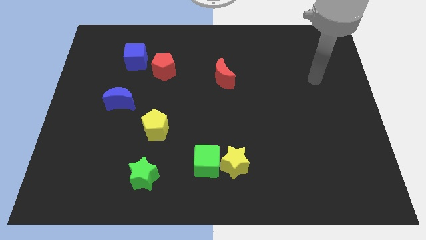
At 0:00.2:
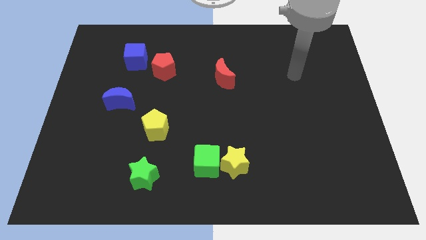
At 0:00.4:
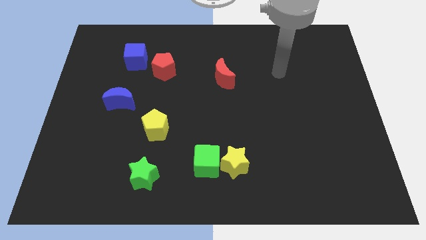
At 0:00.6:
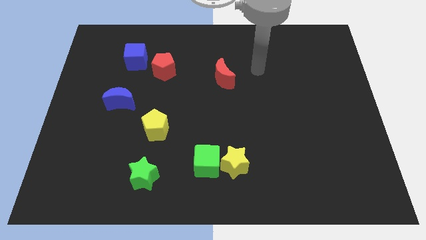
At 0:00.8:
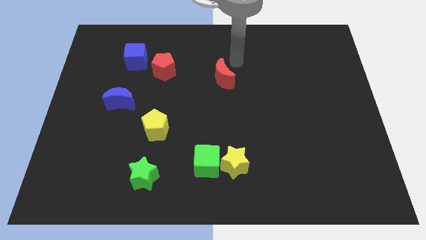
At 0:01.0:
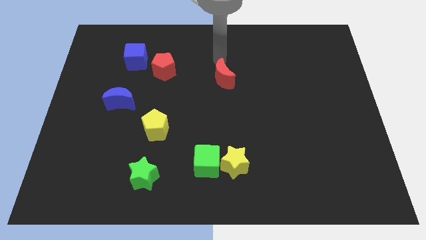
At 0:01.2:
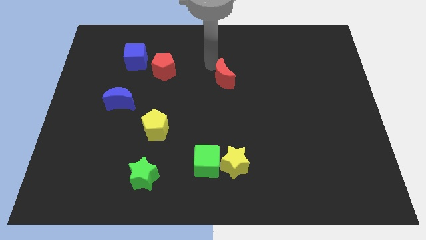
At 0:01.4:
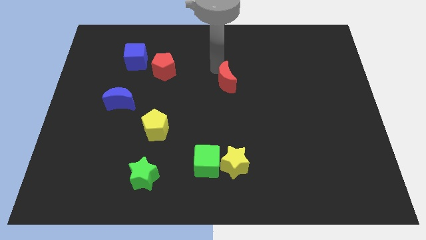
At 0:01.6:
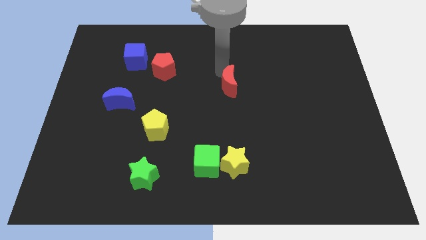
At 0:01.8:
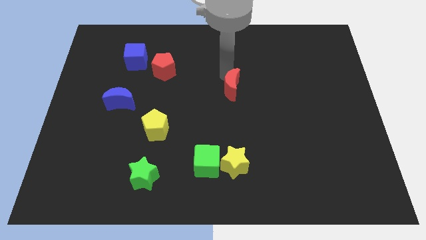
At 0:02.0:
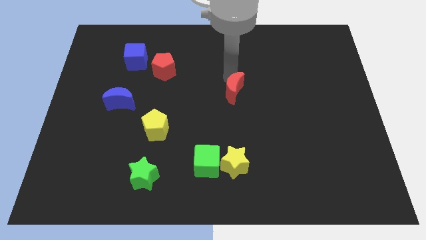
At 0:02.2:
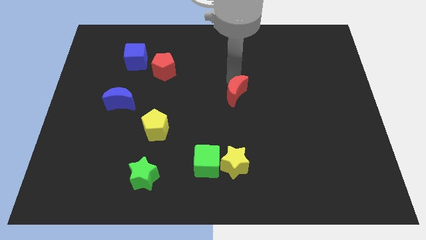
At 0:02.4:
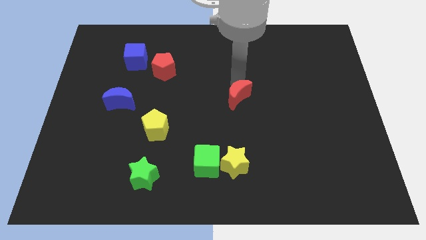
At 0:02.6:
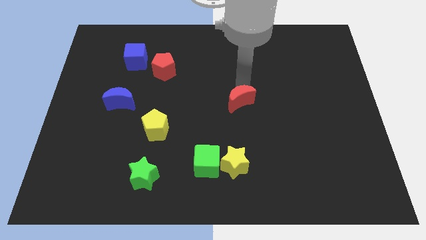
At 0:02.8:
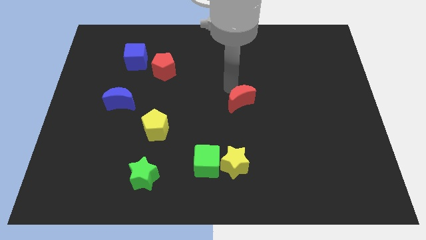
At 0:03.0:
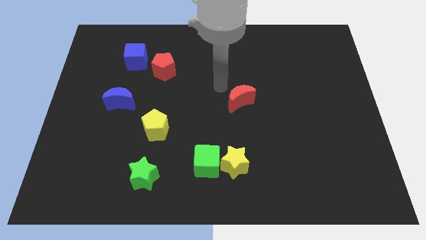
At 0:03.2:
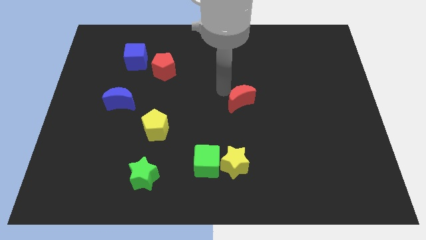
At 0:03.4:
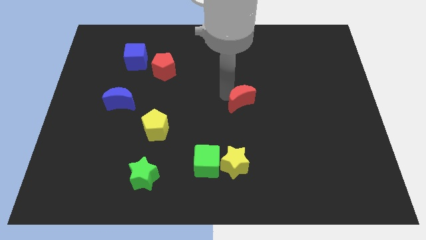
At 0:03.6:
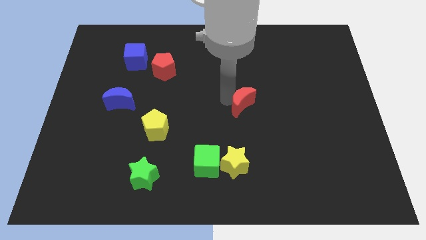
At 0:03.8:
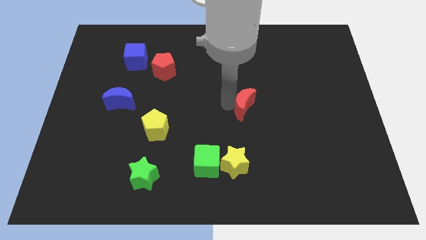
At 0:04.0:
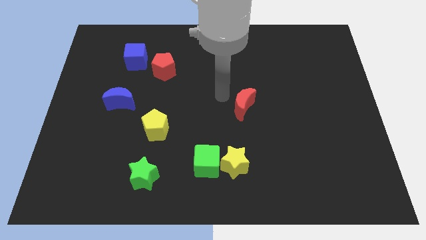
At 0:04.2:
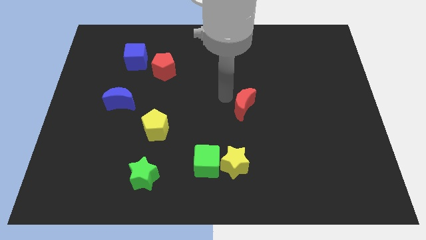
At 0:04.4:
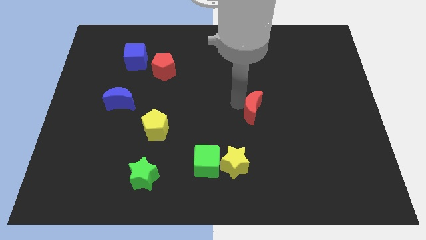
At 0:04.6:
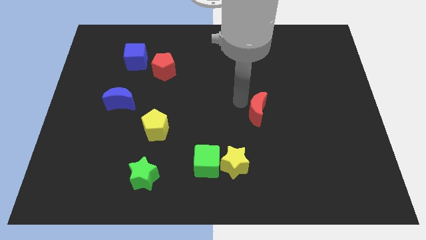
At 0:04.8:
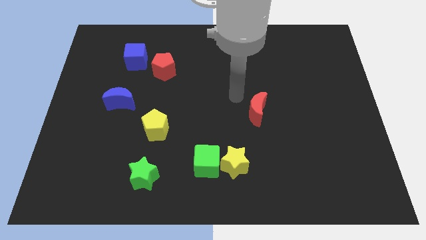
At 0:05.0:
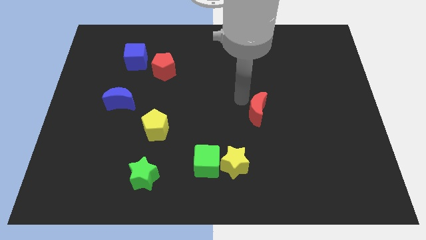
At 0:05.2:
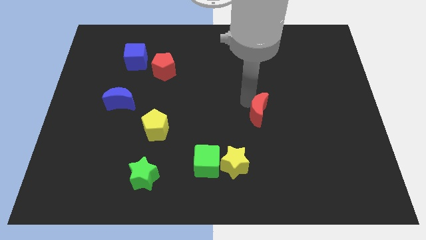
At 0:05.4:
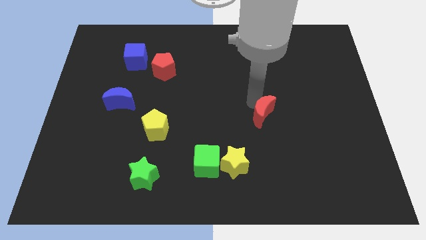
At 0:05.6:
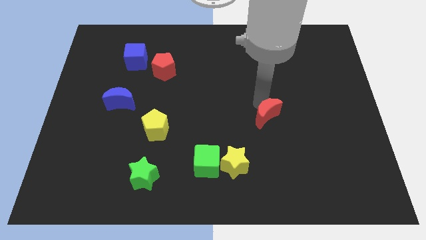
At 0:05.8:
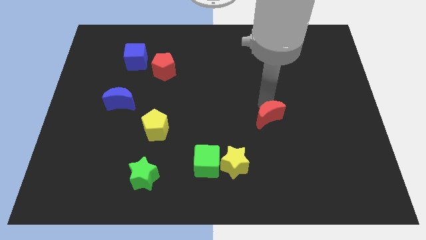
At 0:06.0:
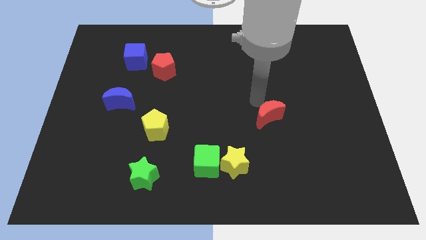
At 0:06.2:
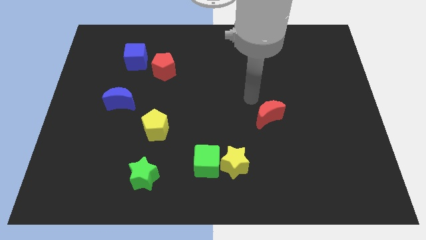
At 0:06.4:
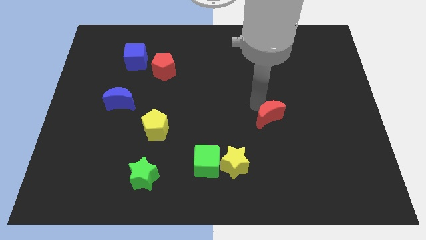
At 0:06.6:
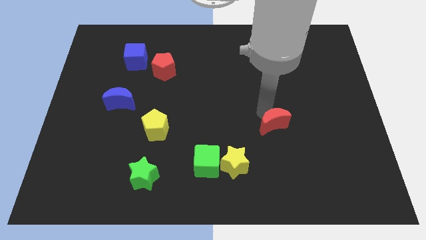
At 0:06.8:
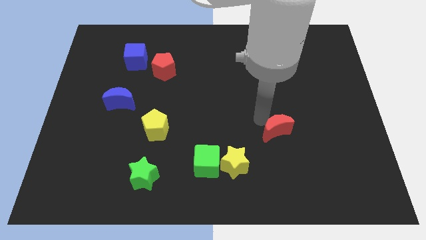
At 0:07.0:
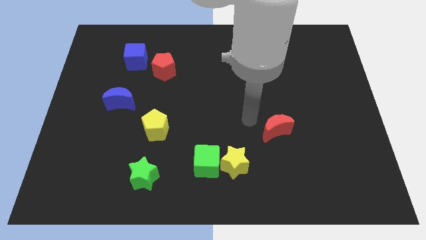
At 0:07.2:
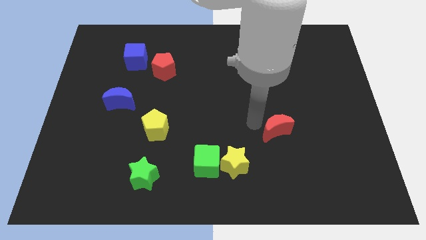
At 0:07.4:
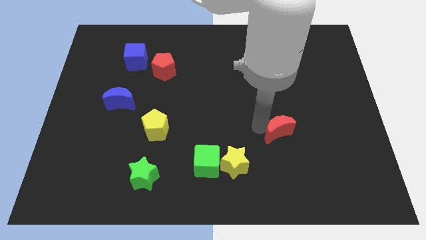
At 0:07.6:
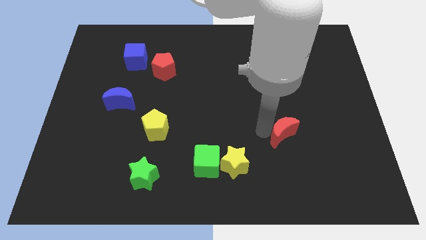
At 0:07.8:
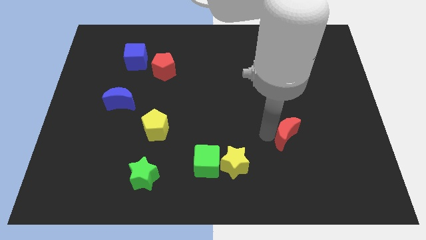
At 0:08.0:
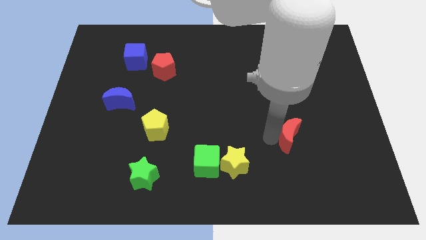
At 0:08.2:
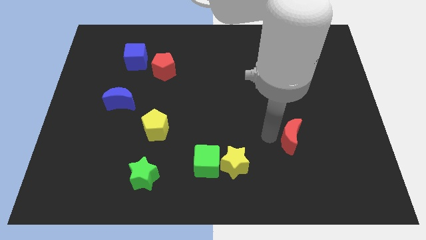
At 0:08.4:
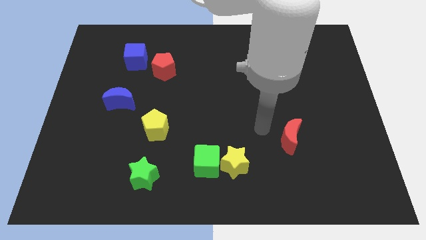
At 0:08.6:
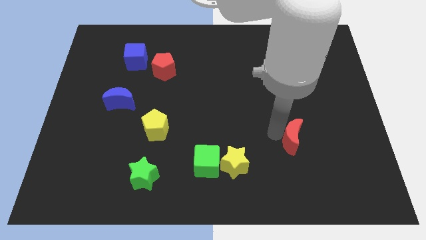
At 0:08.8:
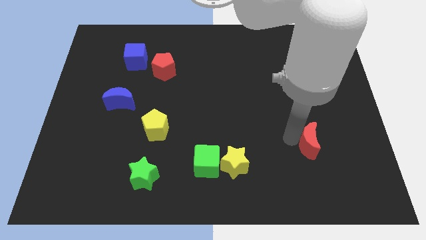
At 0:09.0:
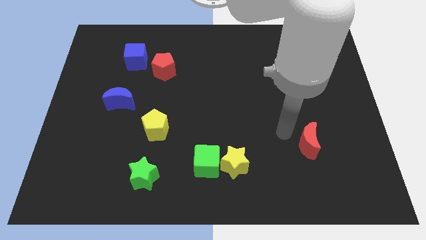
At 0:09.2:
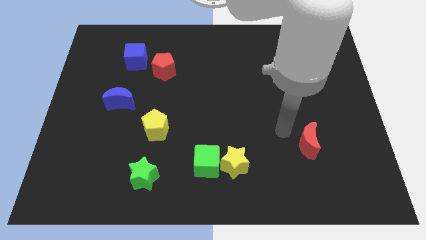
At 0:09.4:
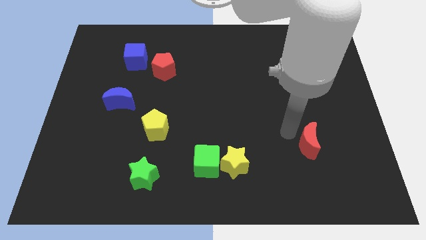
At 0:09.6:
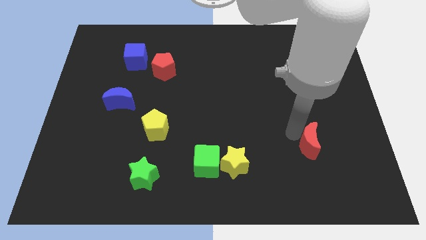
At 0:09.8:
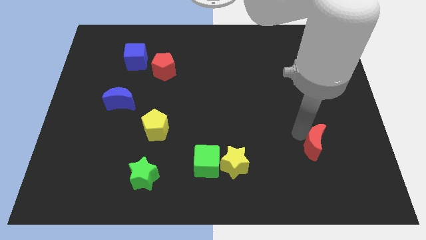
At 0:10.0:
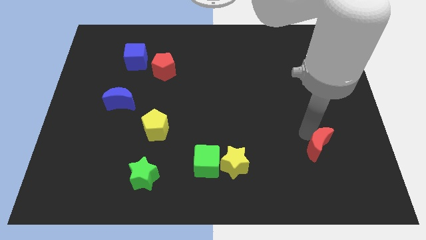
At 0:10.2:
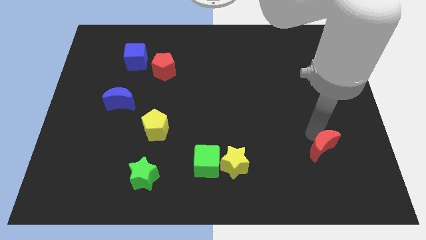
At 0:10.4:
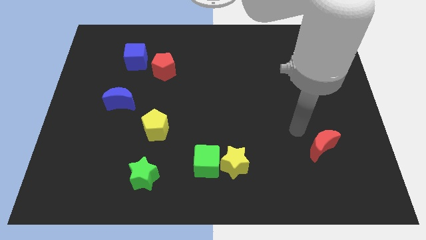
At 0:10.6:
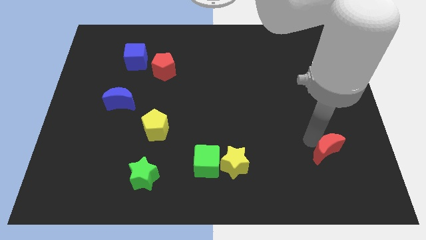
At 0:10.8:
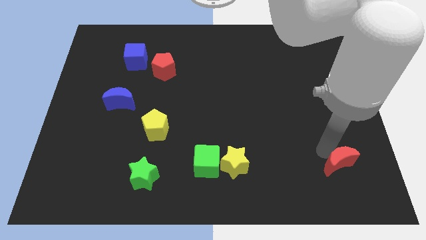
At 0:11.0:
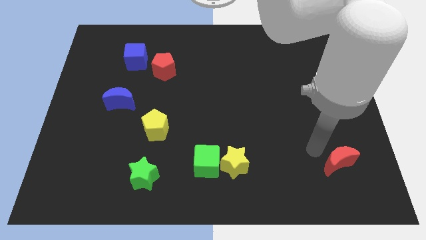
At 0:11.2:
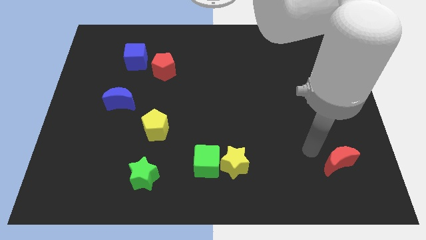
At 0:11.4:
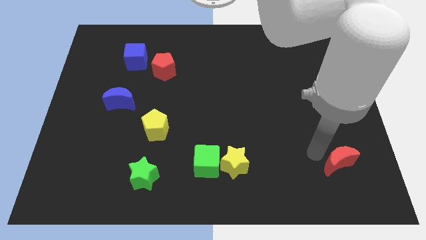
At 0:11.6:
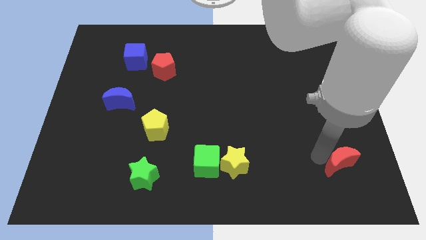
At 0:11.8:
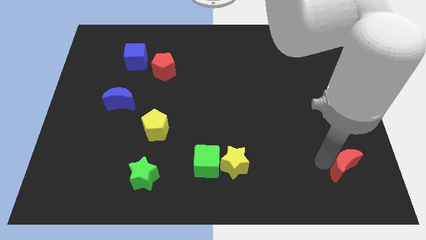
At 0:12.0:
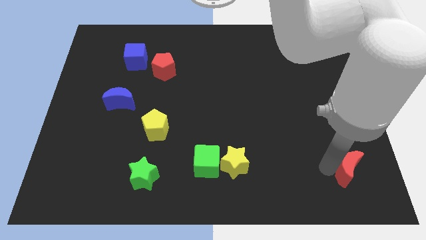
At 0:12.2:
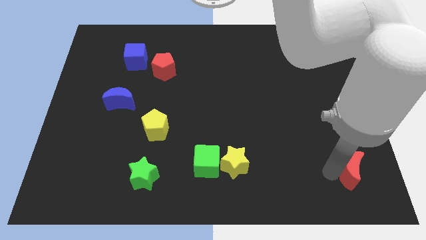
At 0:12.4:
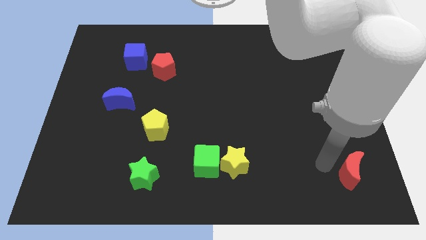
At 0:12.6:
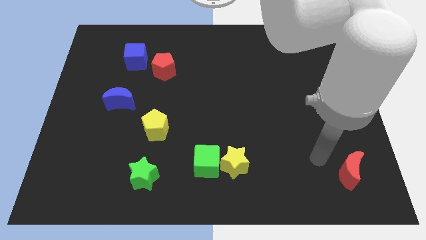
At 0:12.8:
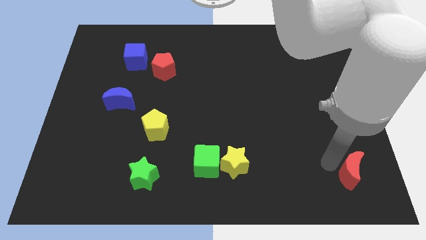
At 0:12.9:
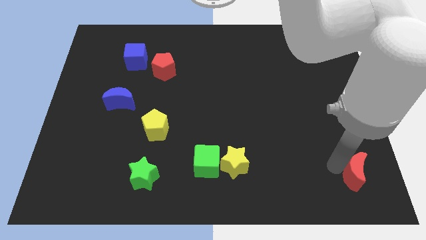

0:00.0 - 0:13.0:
move the red moon to the lower right corner
